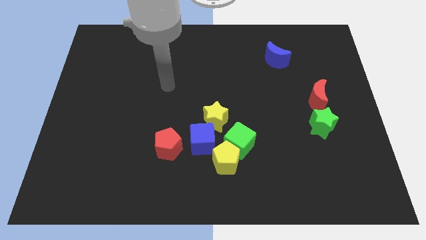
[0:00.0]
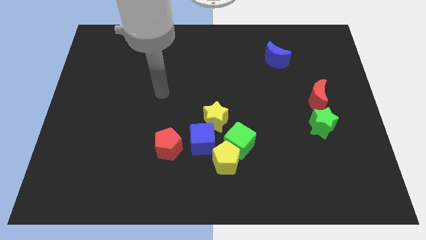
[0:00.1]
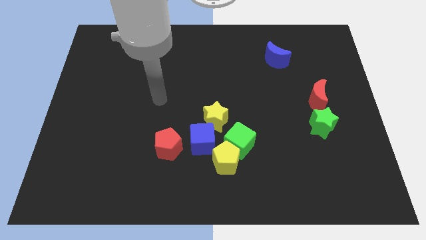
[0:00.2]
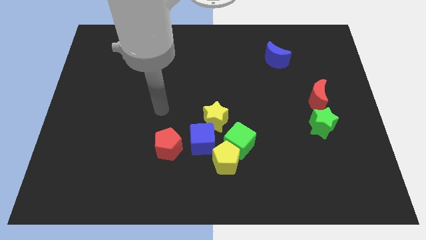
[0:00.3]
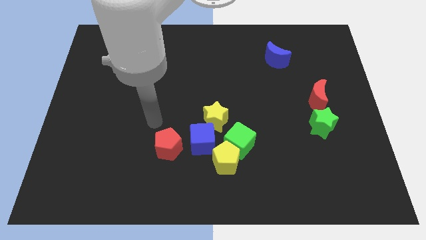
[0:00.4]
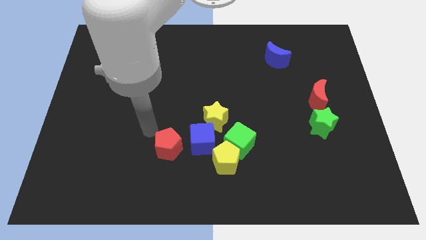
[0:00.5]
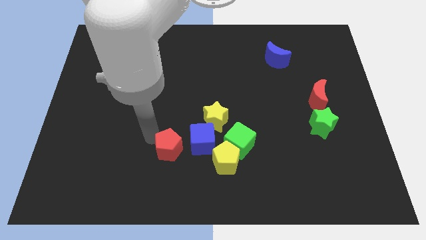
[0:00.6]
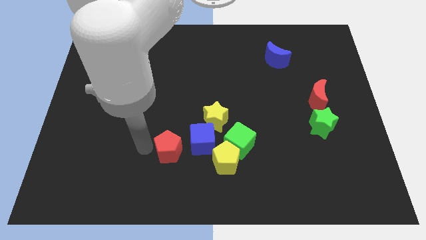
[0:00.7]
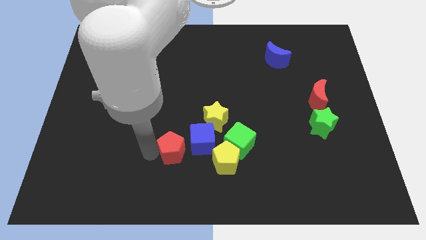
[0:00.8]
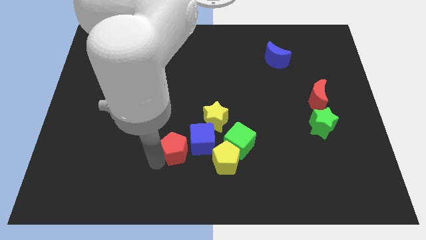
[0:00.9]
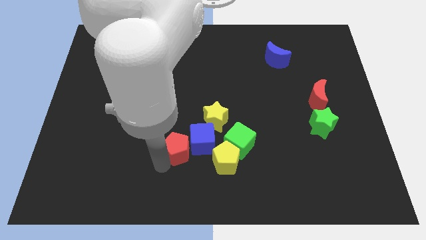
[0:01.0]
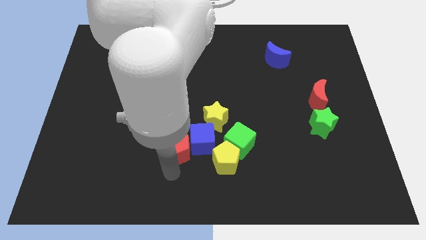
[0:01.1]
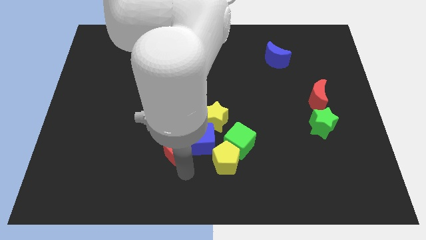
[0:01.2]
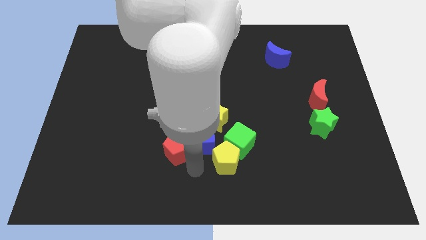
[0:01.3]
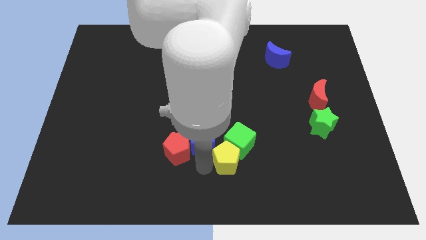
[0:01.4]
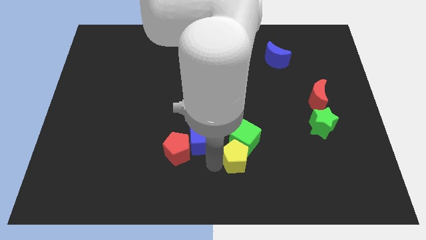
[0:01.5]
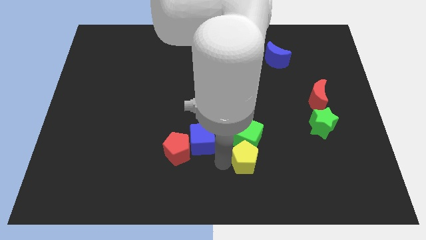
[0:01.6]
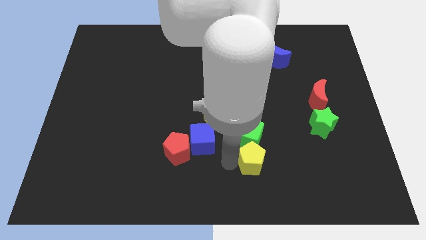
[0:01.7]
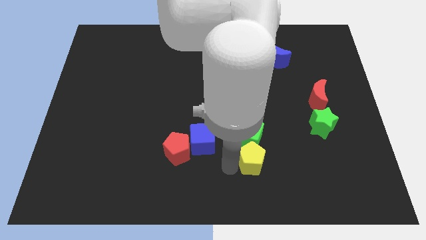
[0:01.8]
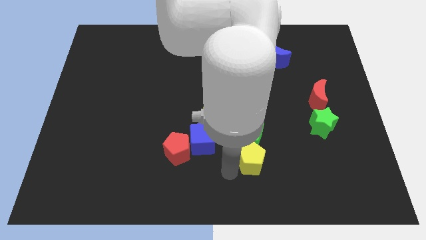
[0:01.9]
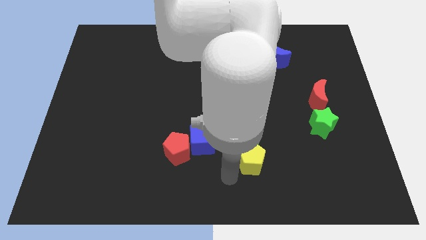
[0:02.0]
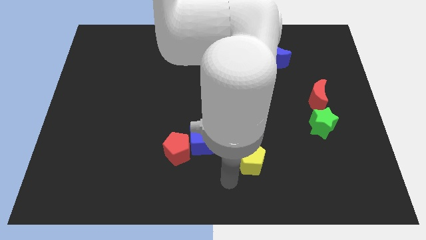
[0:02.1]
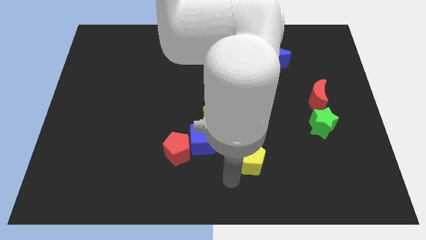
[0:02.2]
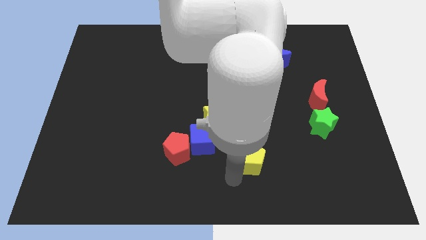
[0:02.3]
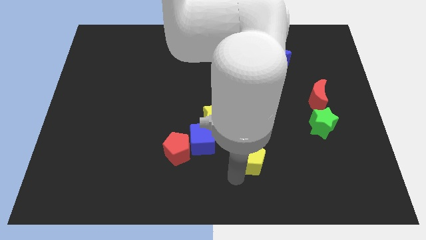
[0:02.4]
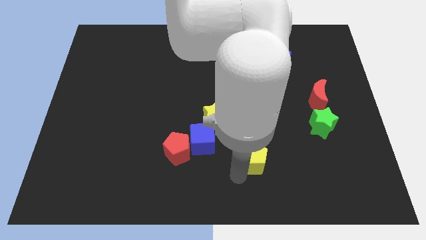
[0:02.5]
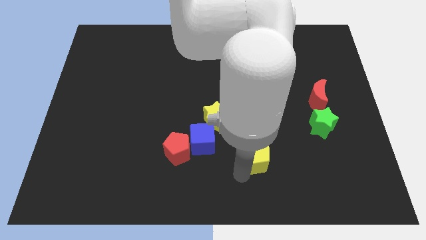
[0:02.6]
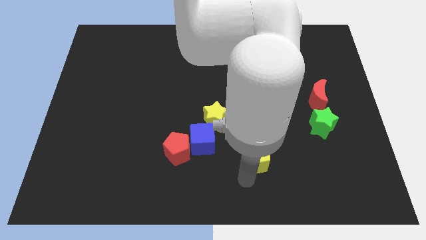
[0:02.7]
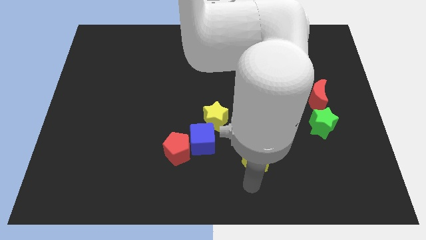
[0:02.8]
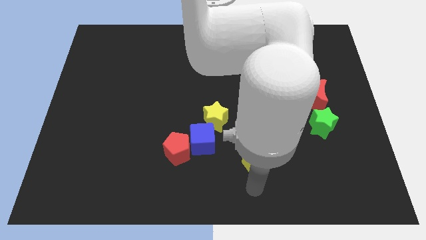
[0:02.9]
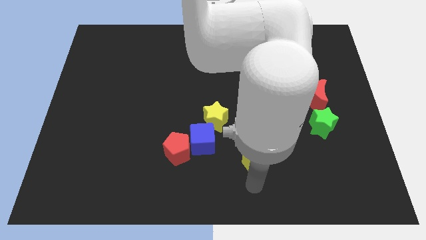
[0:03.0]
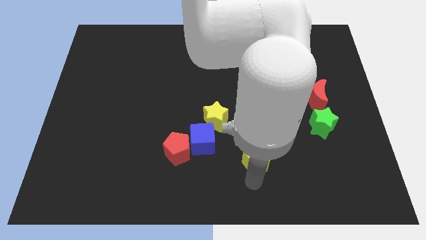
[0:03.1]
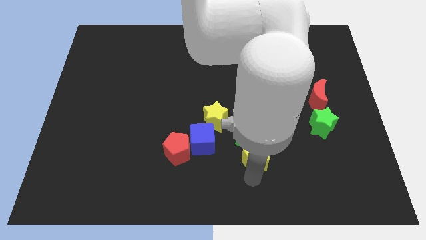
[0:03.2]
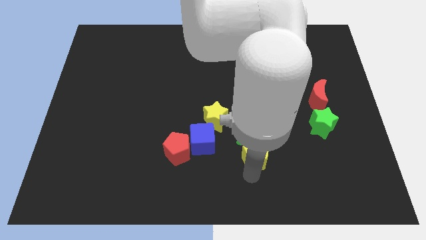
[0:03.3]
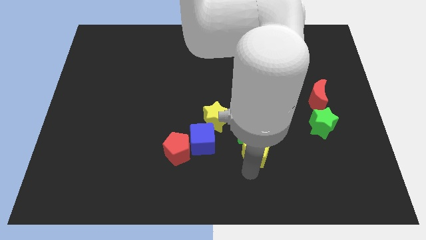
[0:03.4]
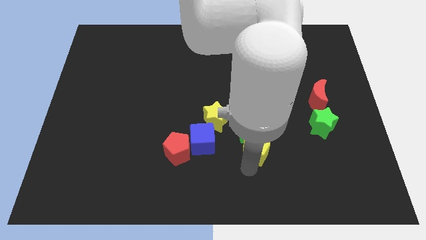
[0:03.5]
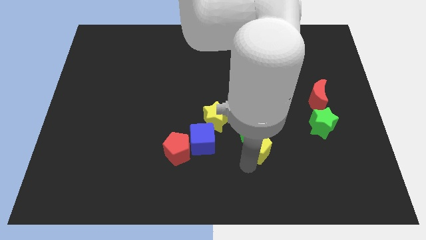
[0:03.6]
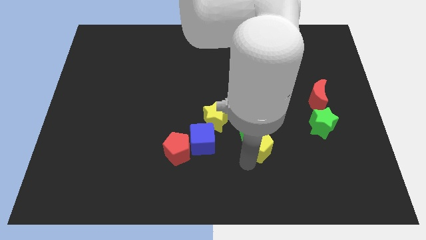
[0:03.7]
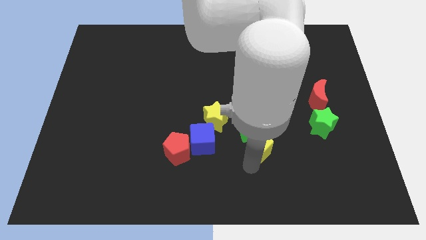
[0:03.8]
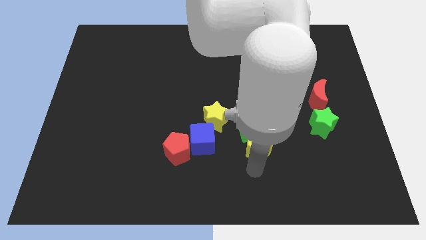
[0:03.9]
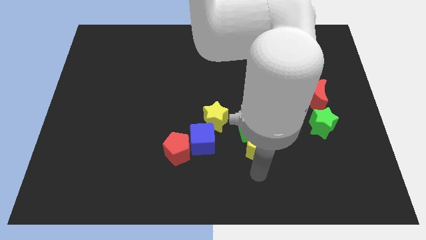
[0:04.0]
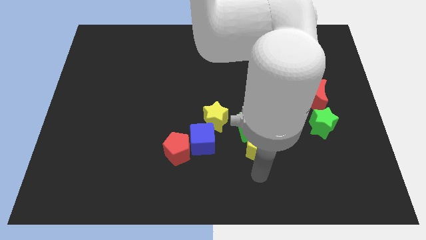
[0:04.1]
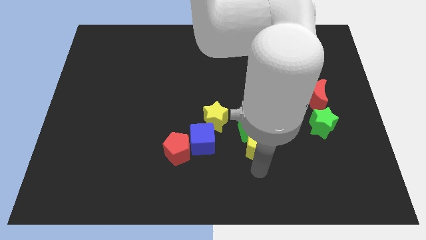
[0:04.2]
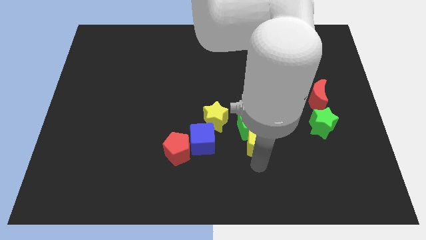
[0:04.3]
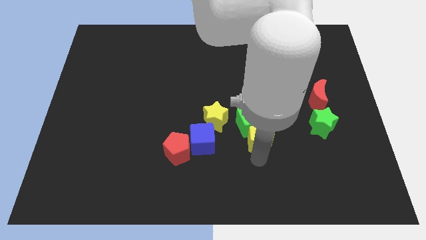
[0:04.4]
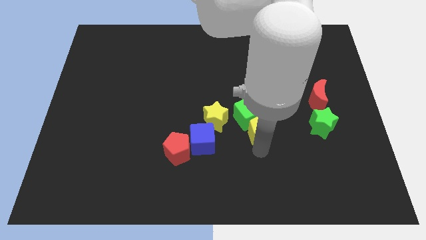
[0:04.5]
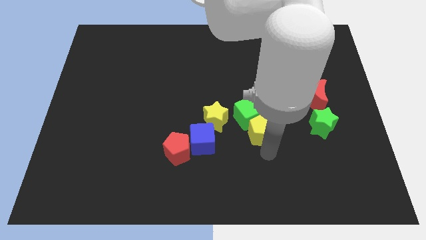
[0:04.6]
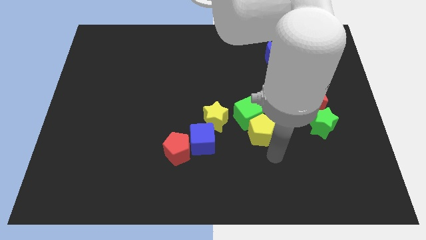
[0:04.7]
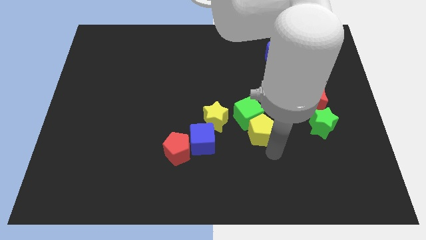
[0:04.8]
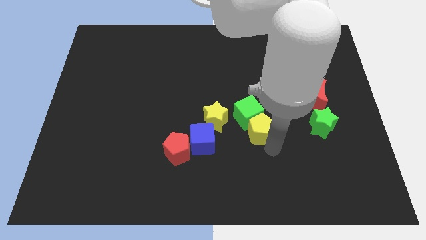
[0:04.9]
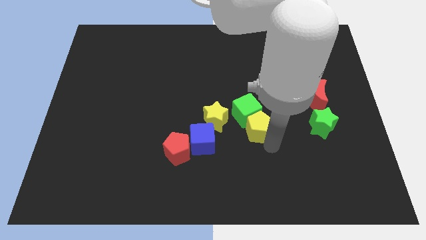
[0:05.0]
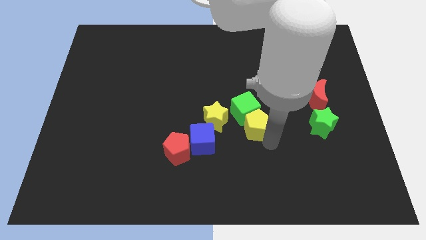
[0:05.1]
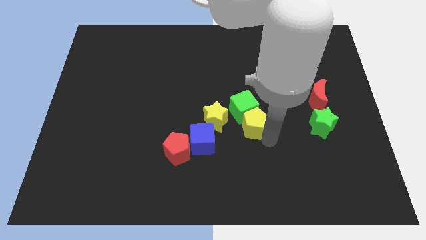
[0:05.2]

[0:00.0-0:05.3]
move the yellow pentagon up somewhat

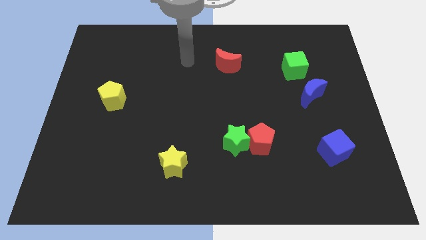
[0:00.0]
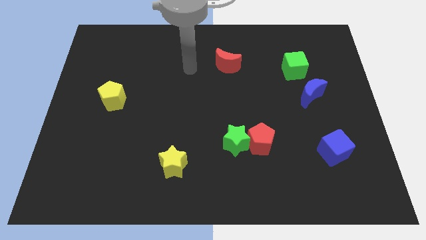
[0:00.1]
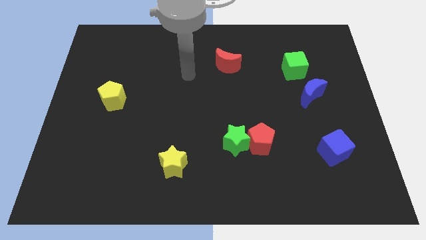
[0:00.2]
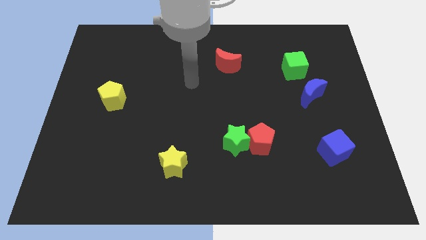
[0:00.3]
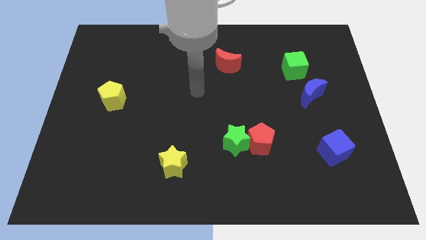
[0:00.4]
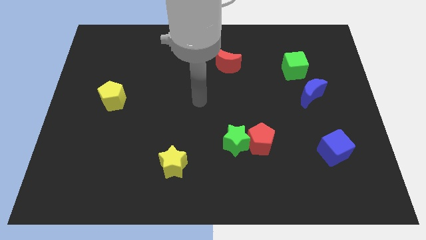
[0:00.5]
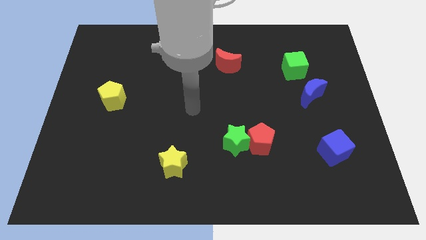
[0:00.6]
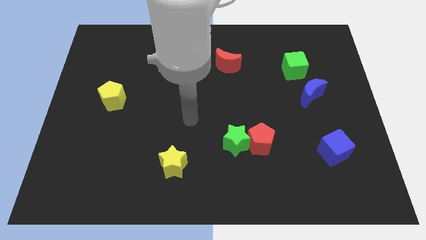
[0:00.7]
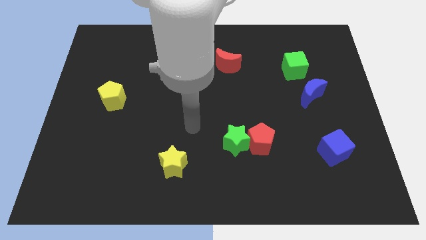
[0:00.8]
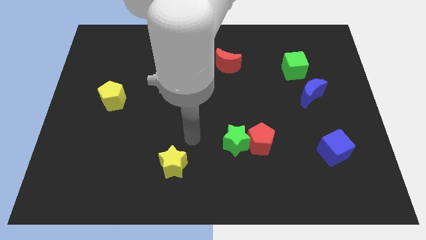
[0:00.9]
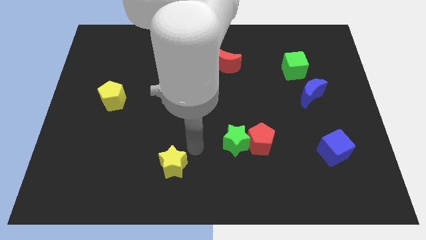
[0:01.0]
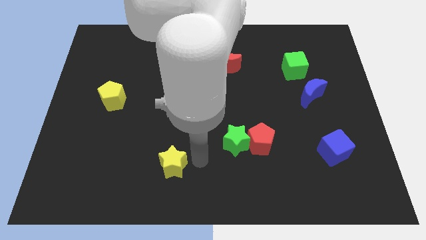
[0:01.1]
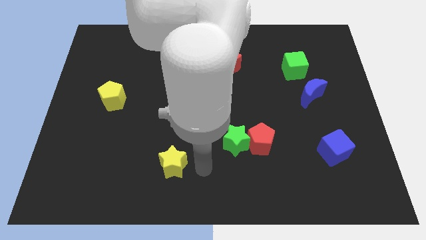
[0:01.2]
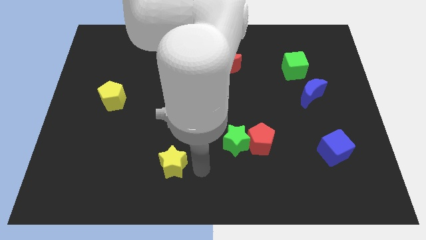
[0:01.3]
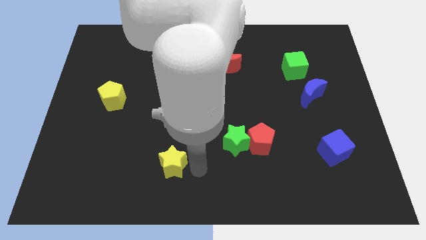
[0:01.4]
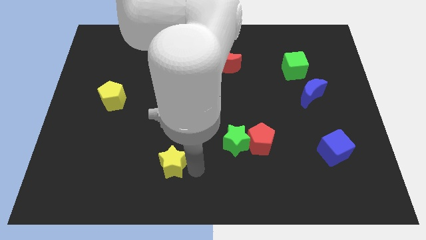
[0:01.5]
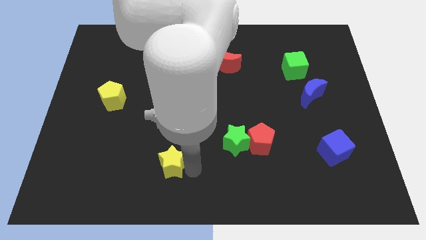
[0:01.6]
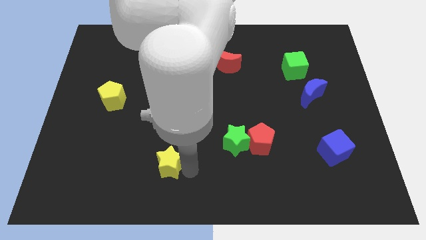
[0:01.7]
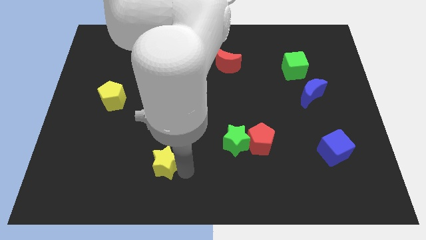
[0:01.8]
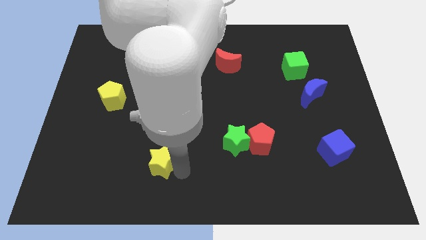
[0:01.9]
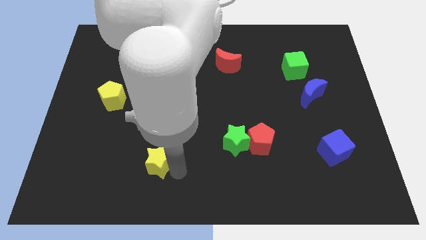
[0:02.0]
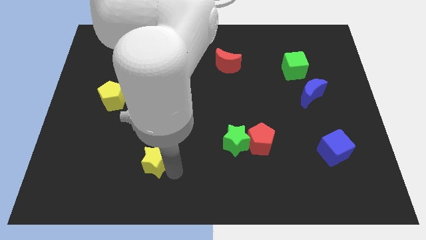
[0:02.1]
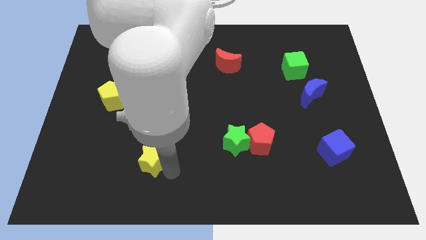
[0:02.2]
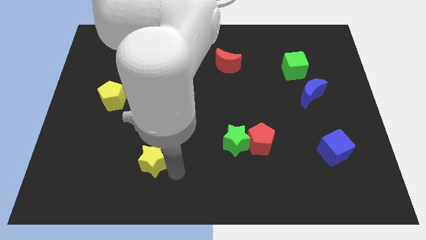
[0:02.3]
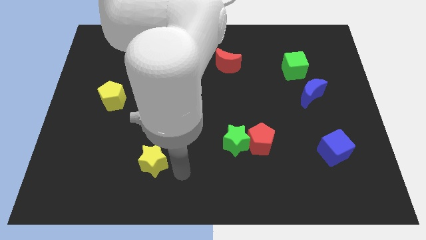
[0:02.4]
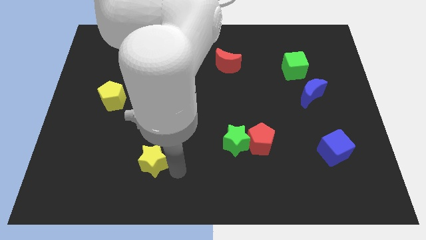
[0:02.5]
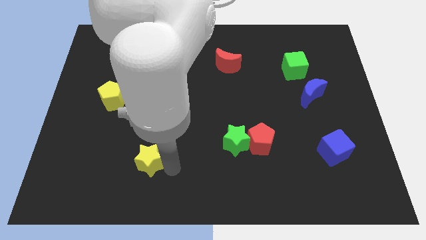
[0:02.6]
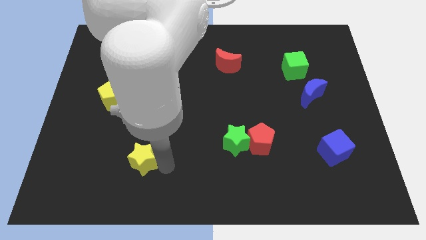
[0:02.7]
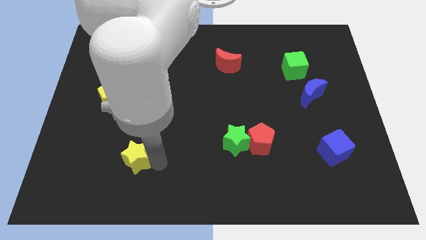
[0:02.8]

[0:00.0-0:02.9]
slide the yellow star somewhat left
